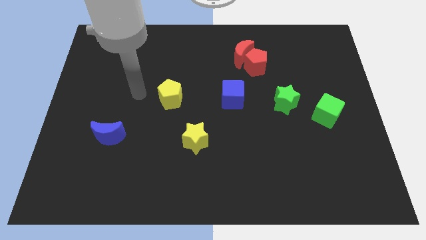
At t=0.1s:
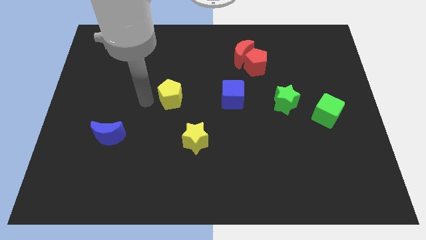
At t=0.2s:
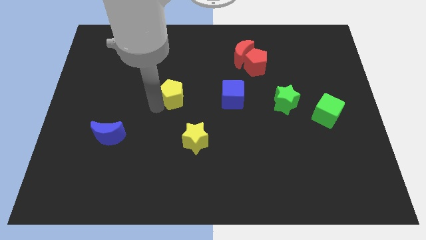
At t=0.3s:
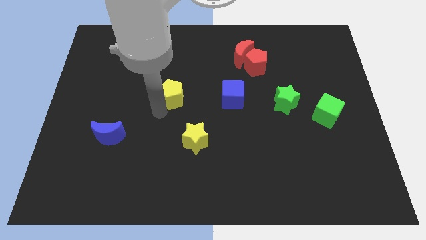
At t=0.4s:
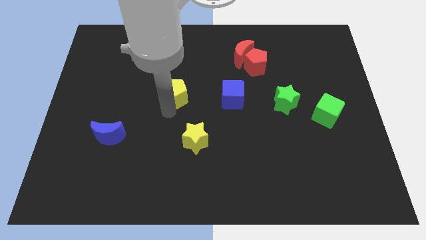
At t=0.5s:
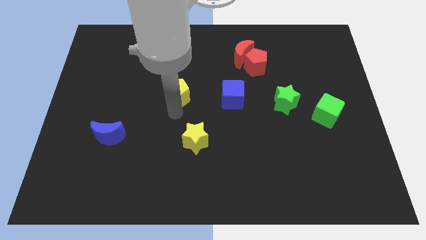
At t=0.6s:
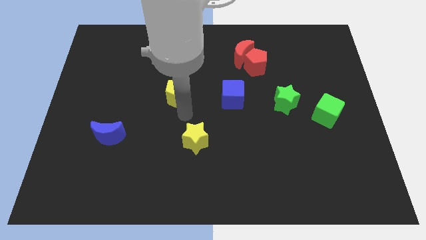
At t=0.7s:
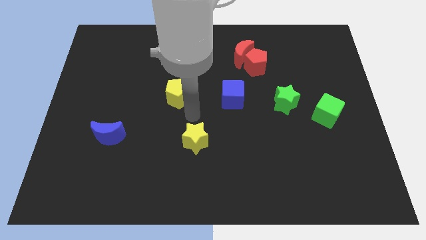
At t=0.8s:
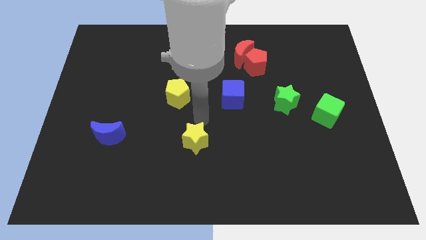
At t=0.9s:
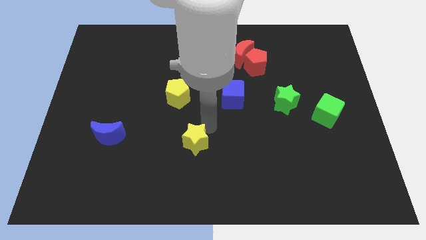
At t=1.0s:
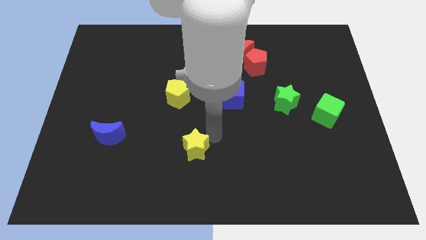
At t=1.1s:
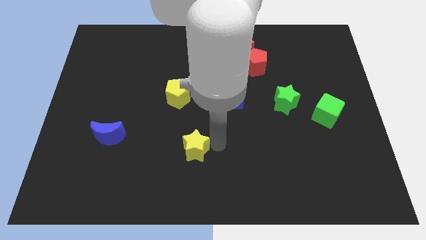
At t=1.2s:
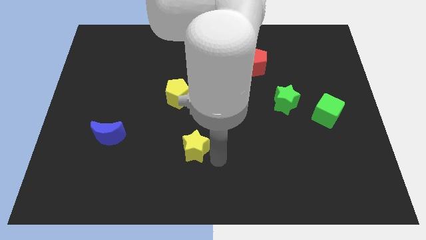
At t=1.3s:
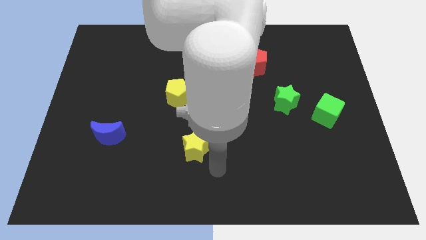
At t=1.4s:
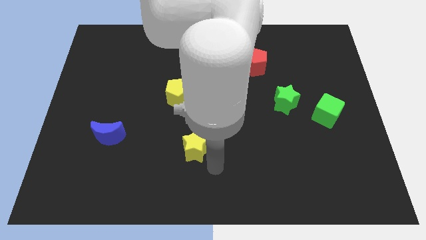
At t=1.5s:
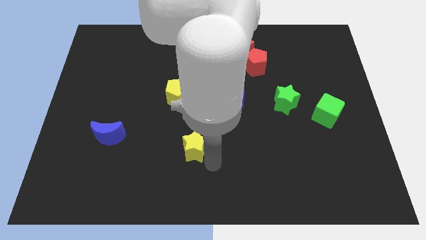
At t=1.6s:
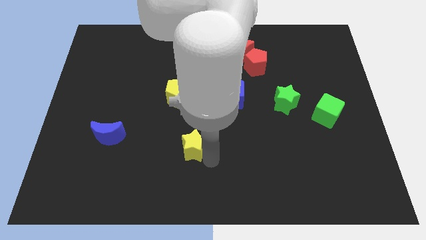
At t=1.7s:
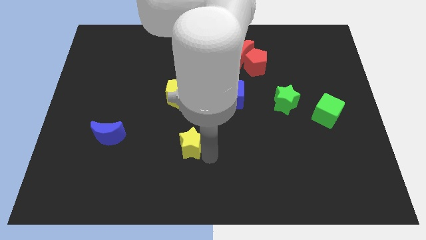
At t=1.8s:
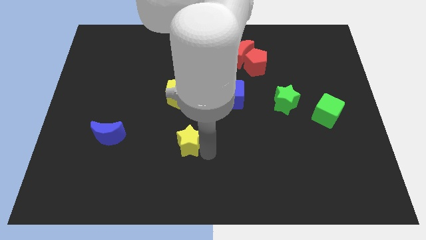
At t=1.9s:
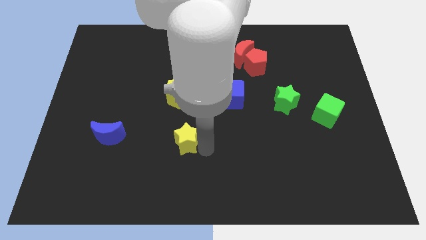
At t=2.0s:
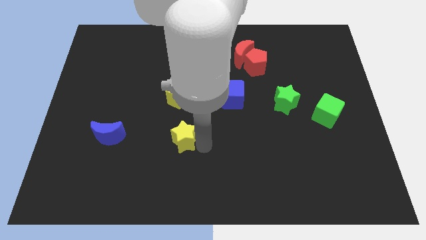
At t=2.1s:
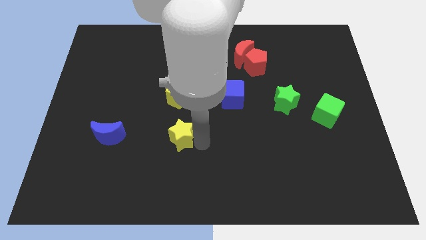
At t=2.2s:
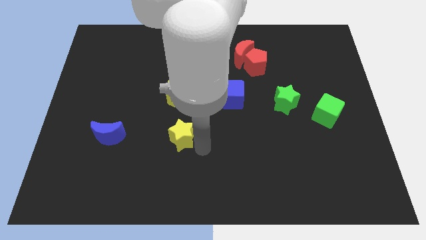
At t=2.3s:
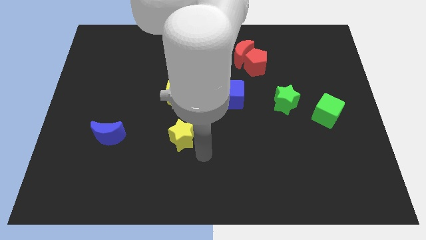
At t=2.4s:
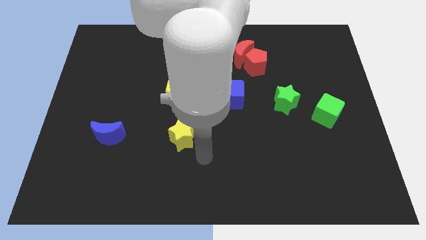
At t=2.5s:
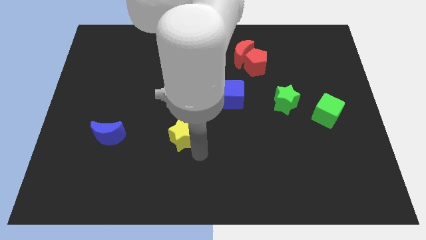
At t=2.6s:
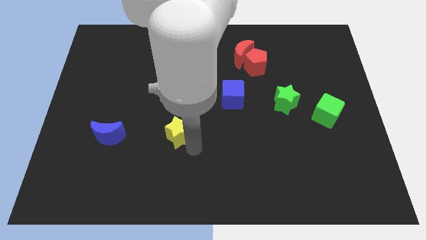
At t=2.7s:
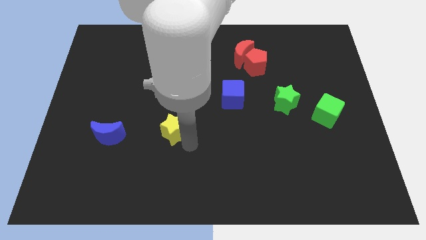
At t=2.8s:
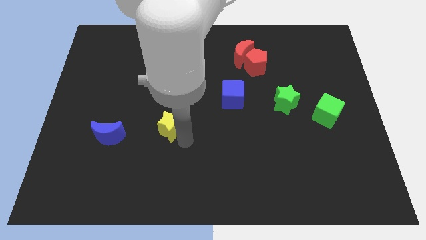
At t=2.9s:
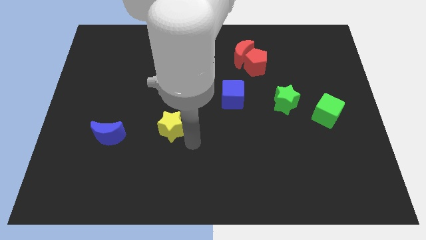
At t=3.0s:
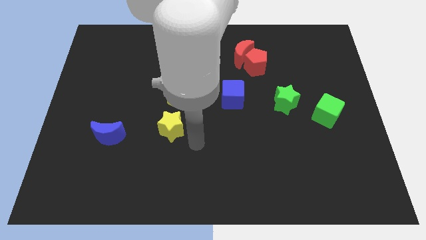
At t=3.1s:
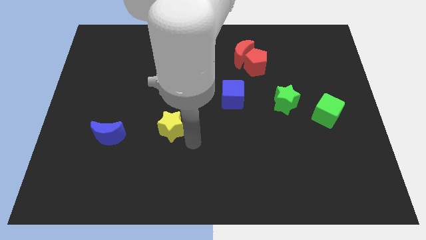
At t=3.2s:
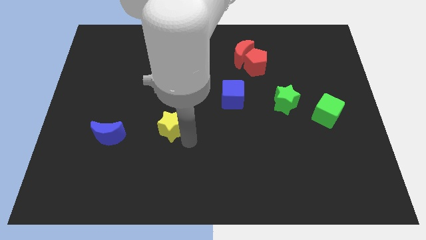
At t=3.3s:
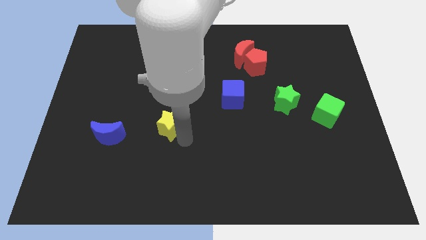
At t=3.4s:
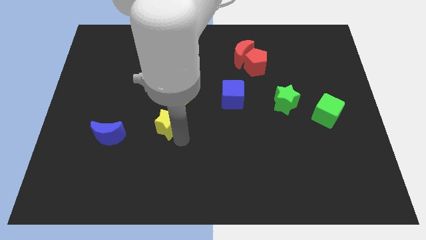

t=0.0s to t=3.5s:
slide the yellow star upwards and then to the left a little bit

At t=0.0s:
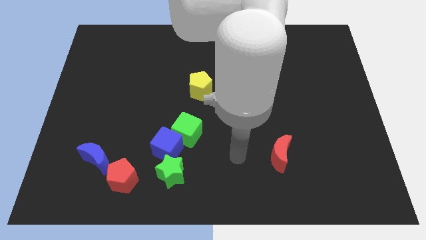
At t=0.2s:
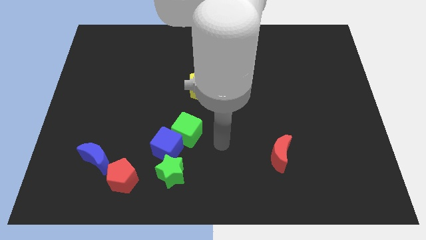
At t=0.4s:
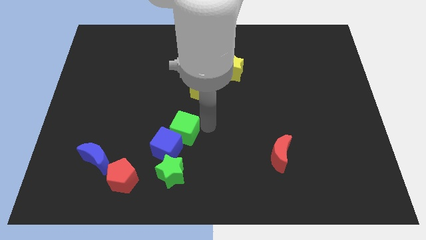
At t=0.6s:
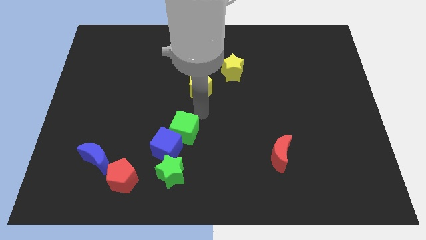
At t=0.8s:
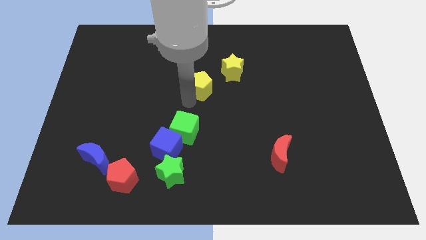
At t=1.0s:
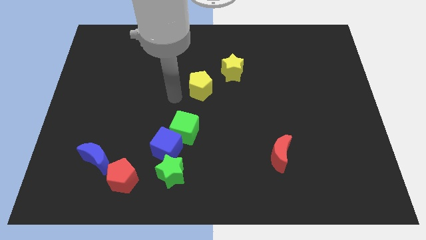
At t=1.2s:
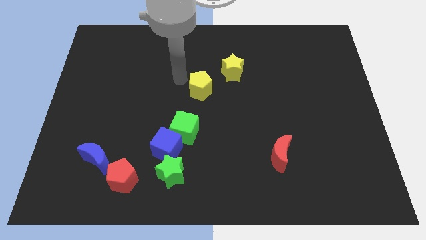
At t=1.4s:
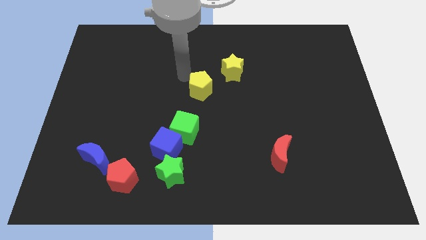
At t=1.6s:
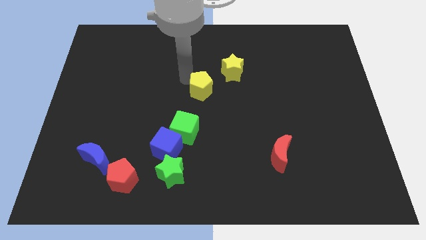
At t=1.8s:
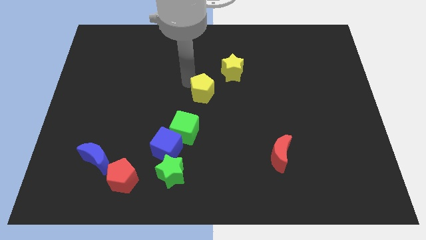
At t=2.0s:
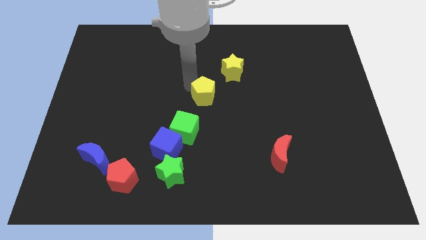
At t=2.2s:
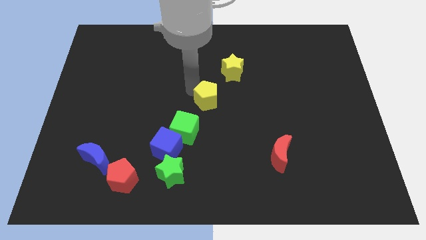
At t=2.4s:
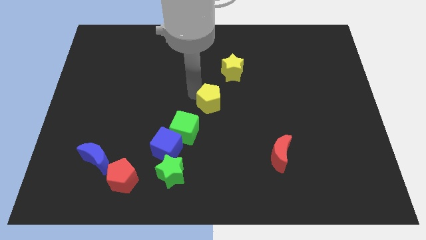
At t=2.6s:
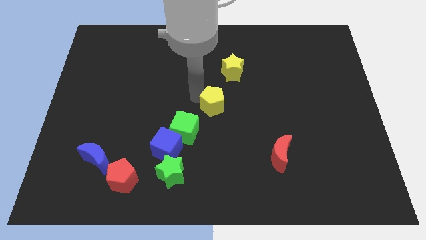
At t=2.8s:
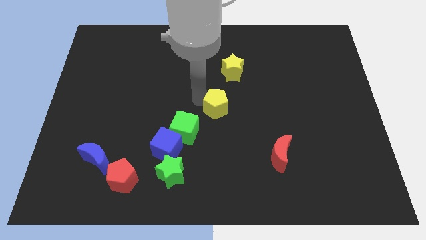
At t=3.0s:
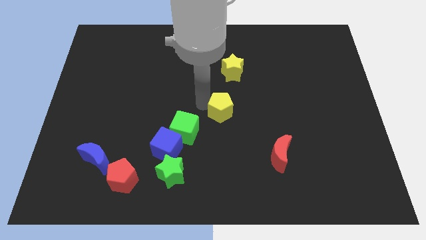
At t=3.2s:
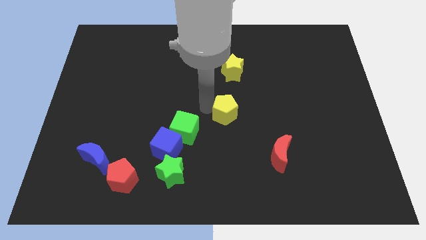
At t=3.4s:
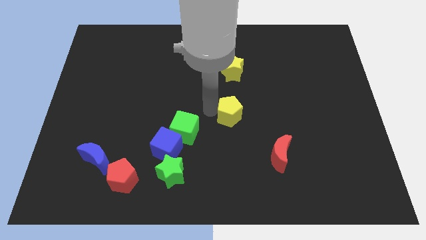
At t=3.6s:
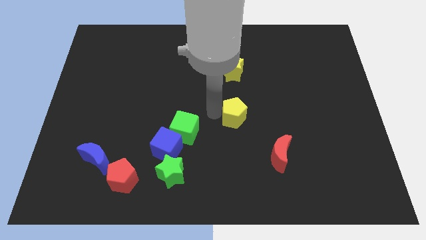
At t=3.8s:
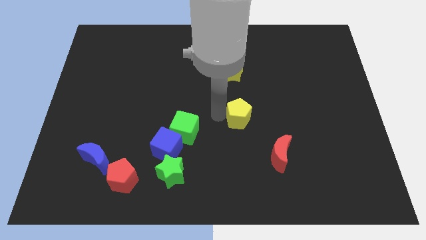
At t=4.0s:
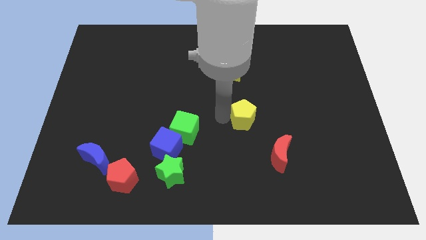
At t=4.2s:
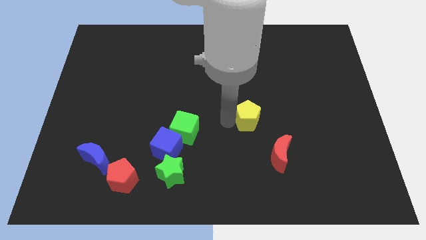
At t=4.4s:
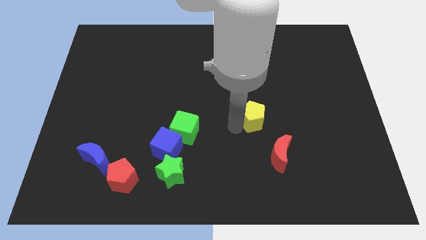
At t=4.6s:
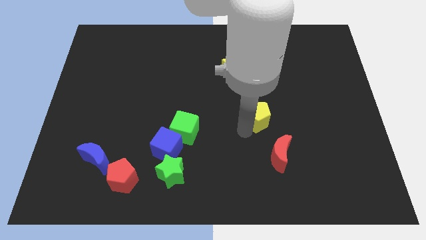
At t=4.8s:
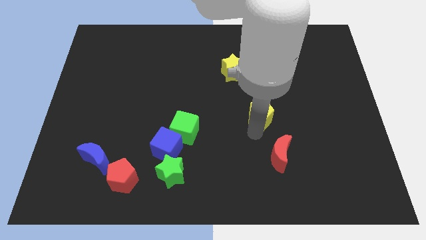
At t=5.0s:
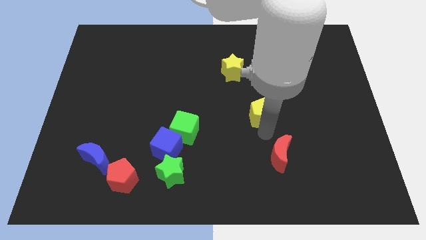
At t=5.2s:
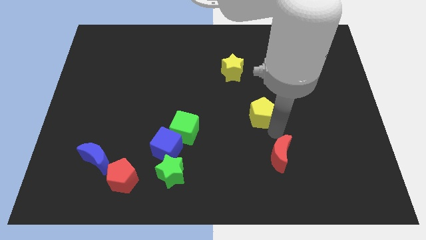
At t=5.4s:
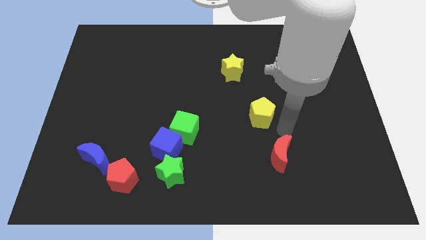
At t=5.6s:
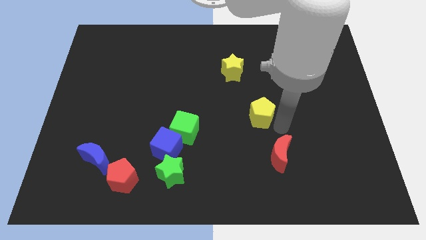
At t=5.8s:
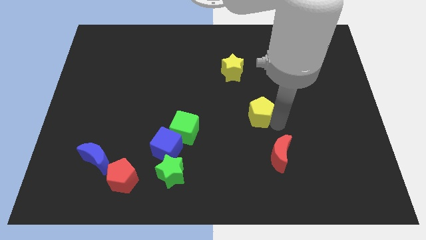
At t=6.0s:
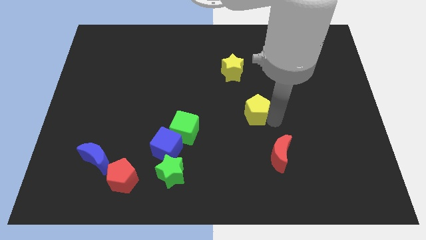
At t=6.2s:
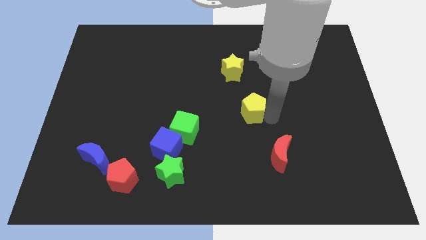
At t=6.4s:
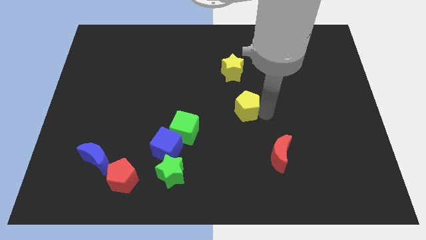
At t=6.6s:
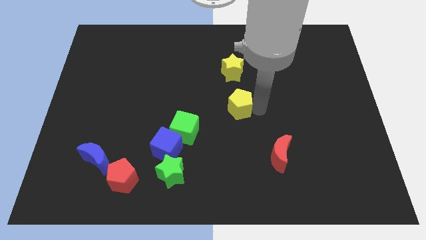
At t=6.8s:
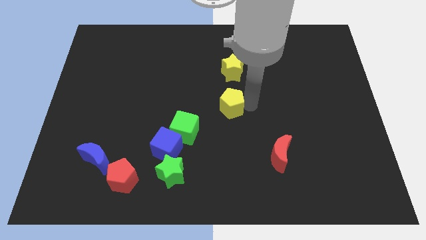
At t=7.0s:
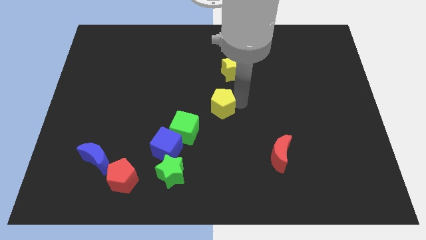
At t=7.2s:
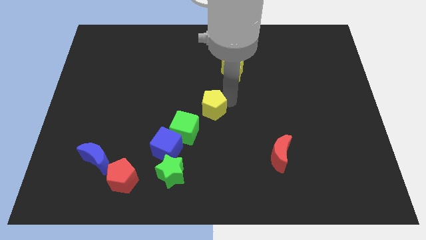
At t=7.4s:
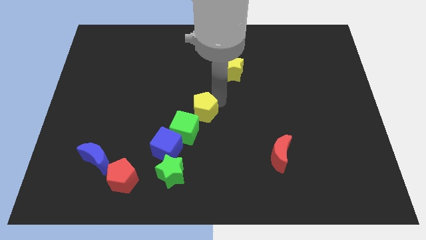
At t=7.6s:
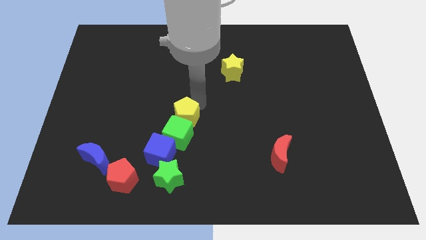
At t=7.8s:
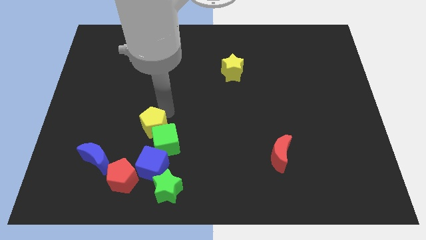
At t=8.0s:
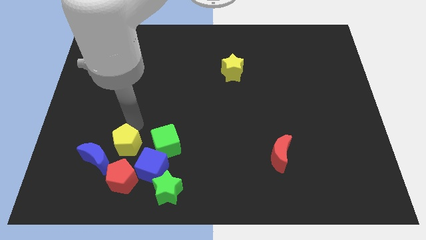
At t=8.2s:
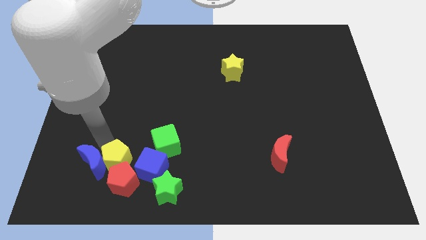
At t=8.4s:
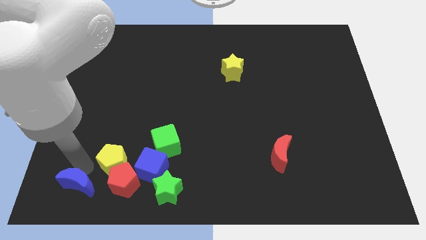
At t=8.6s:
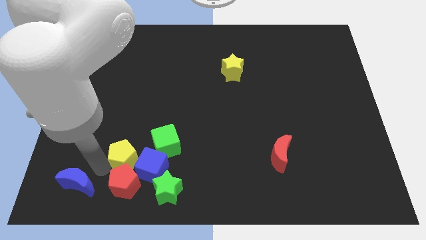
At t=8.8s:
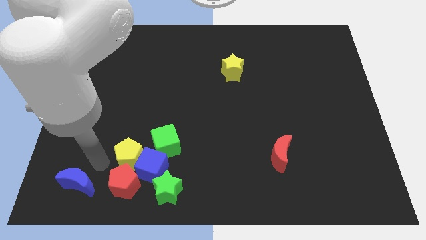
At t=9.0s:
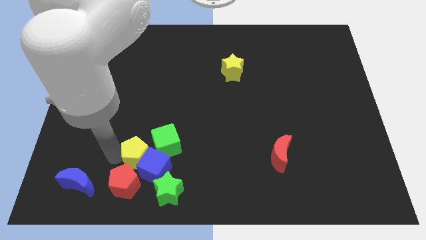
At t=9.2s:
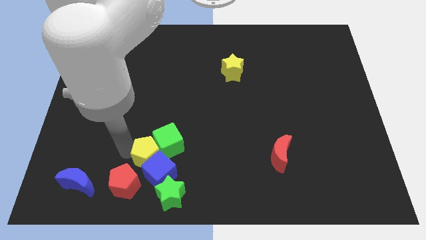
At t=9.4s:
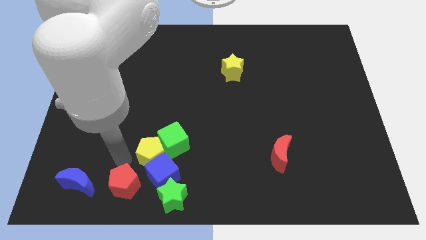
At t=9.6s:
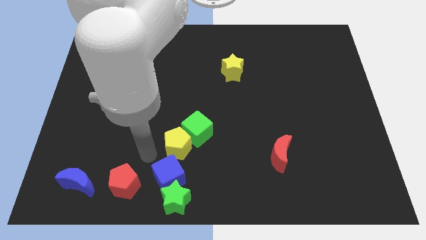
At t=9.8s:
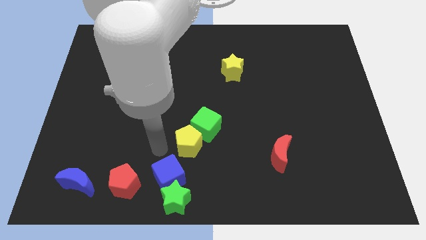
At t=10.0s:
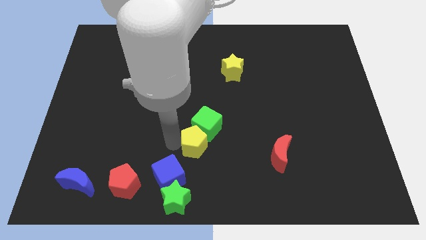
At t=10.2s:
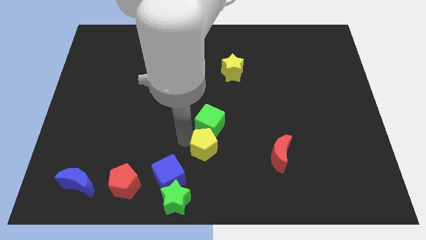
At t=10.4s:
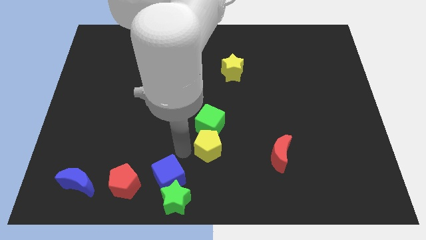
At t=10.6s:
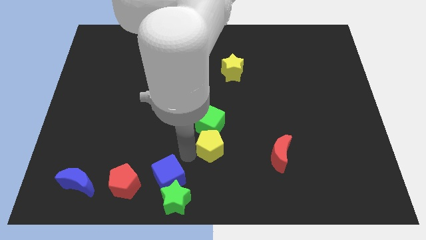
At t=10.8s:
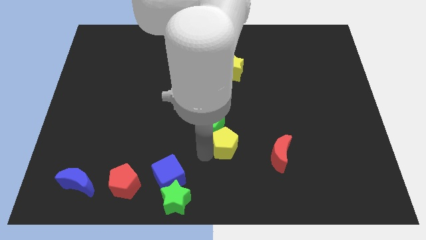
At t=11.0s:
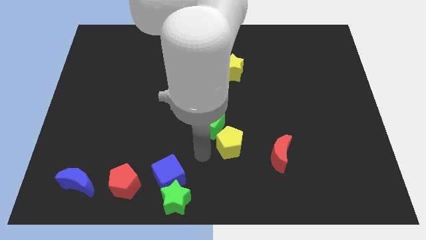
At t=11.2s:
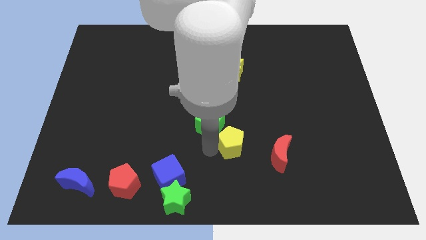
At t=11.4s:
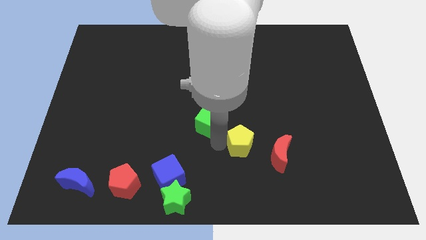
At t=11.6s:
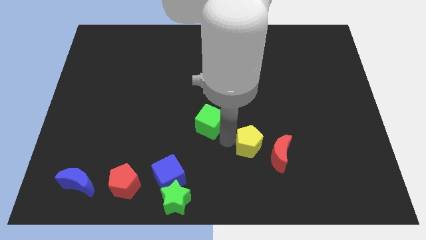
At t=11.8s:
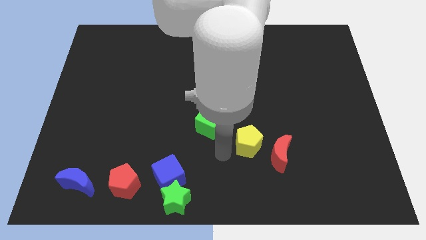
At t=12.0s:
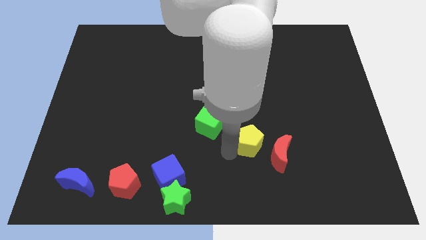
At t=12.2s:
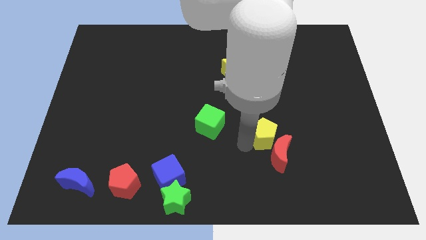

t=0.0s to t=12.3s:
slide the yellow pentagon diagonally downwards and right
